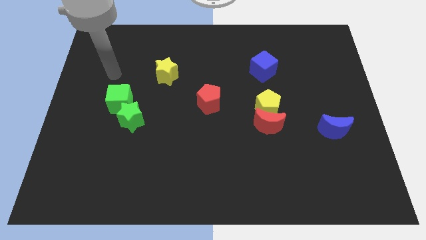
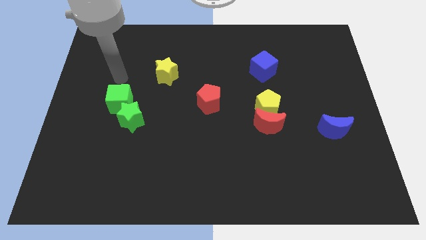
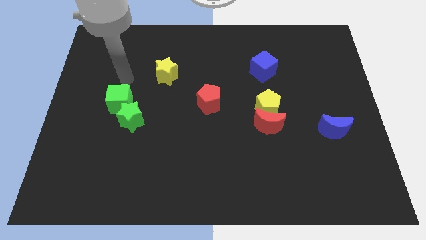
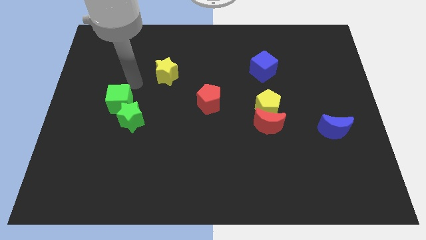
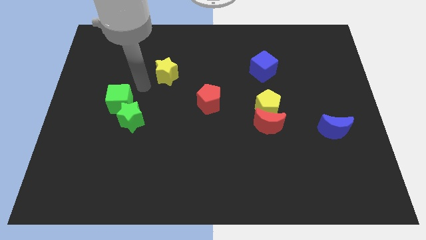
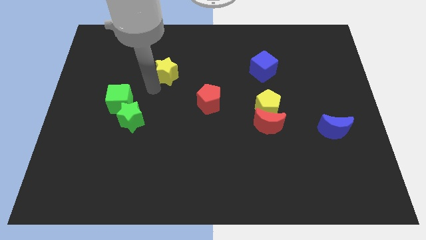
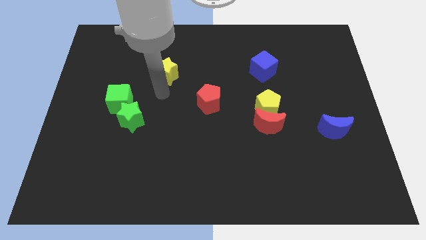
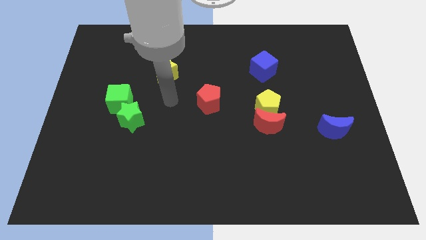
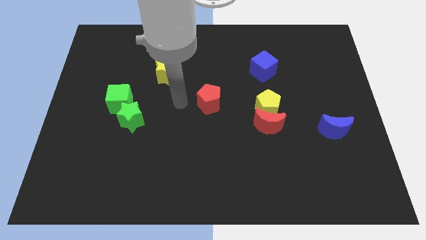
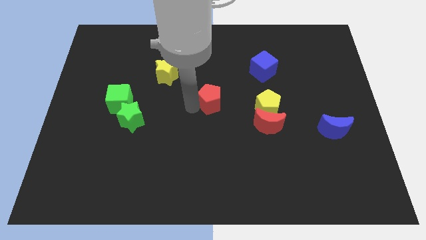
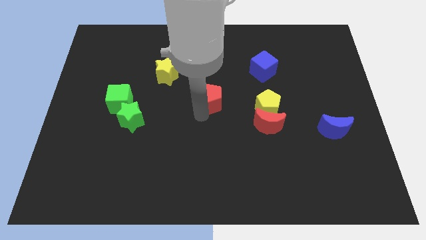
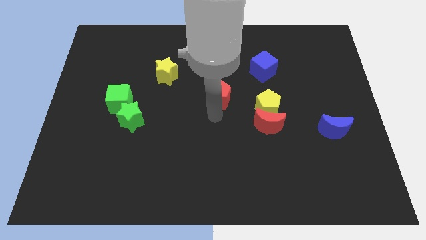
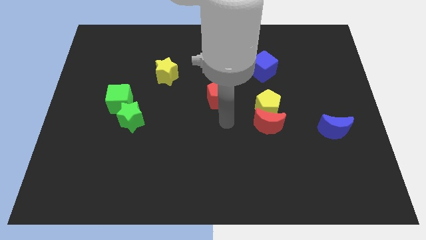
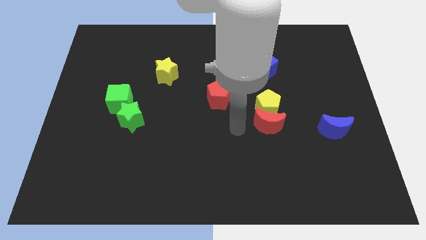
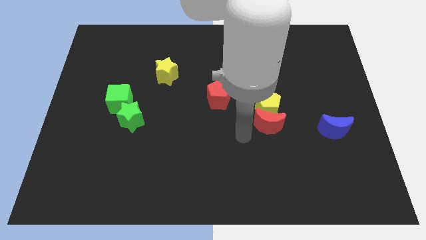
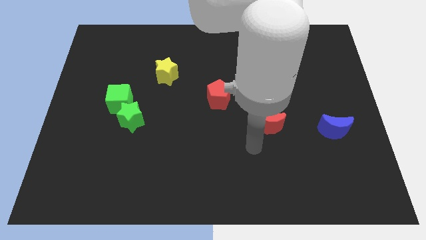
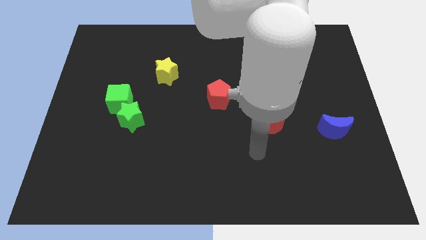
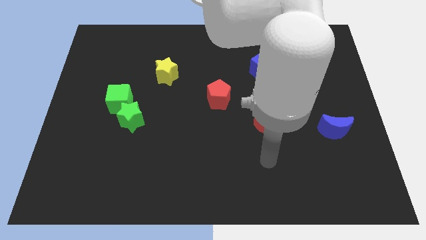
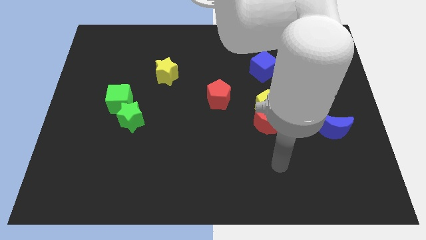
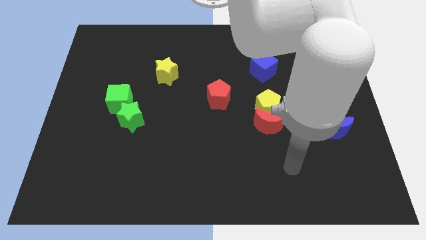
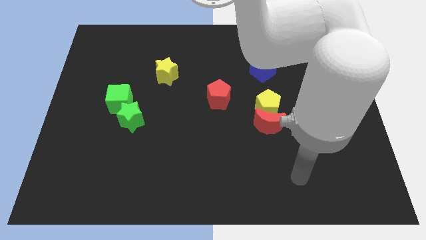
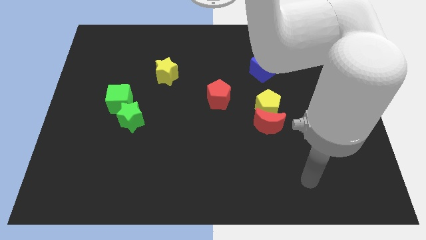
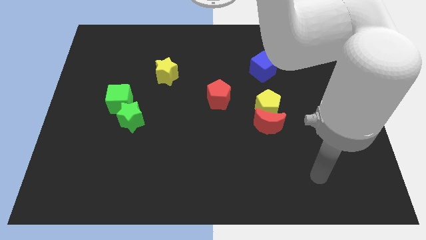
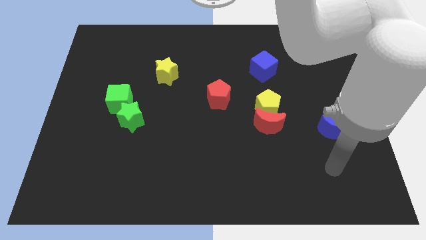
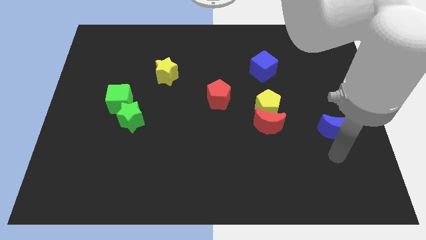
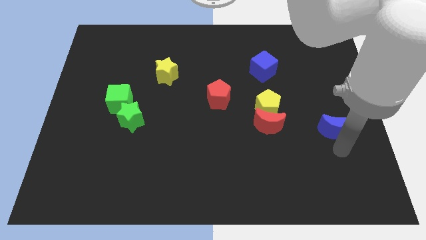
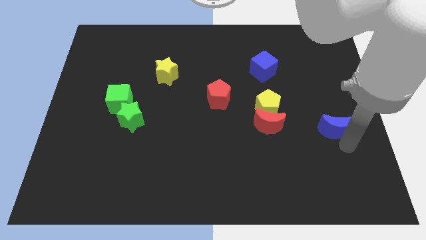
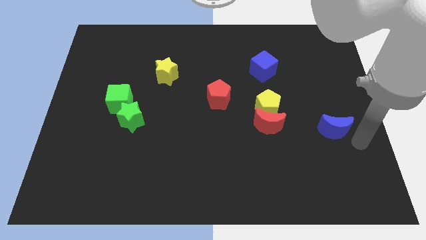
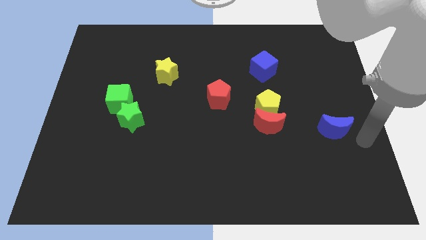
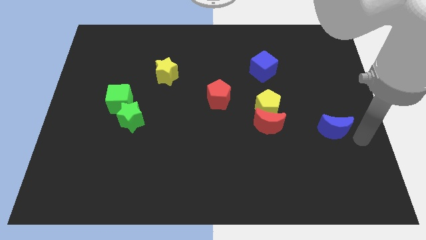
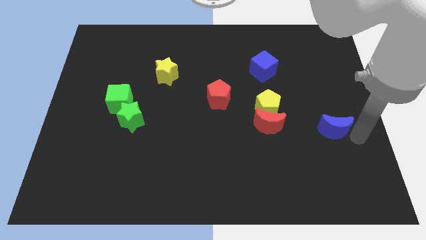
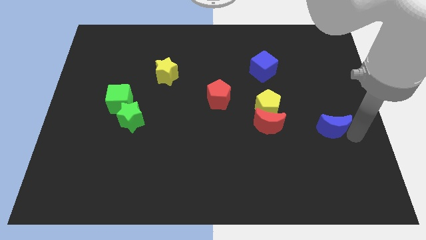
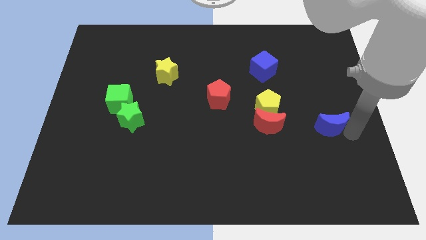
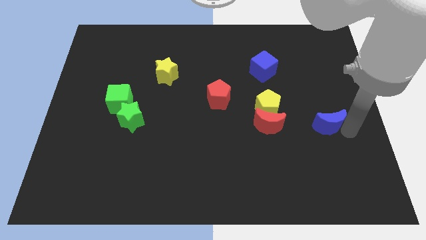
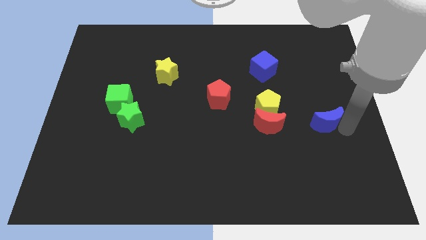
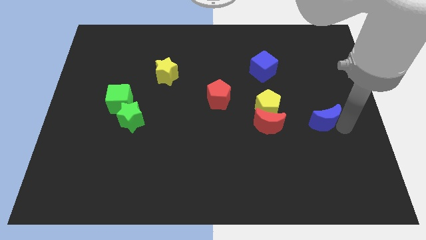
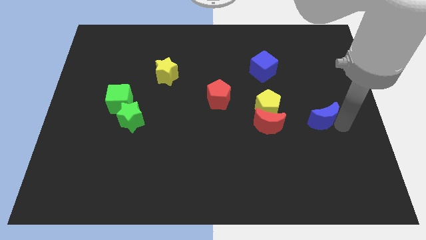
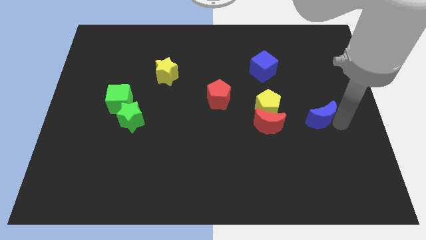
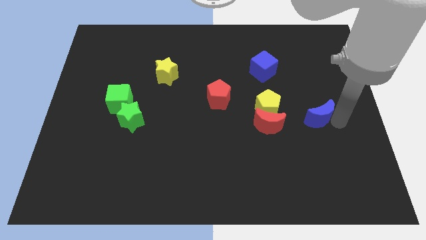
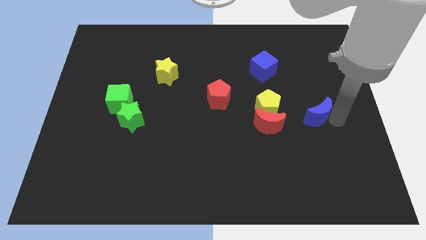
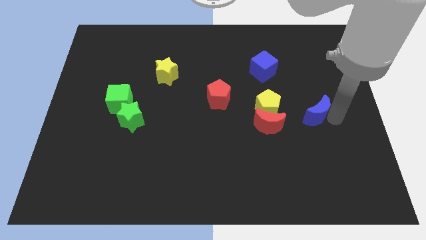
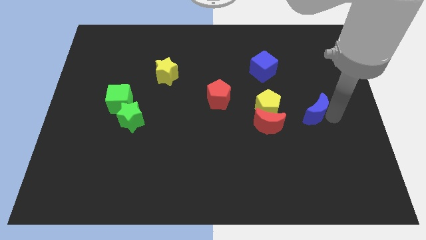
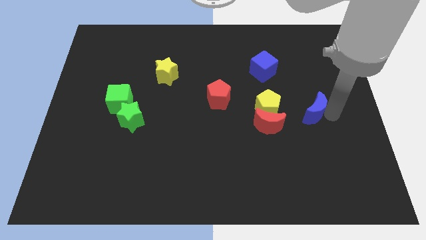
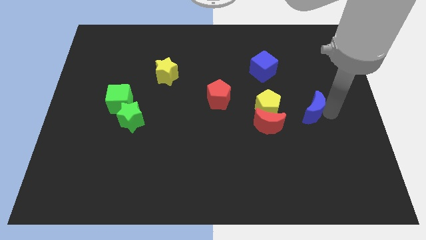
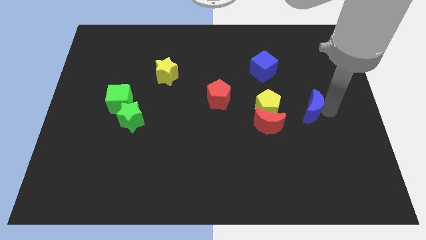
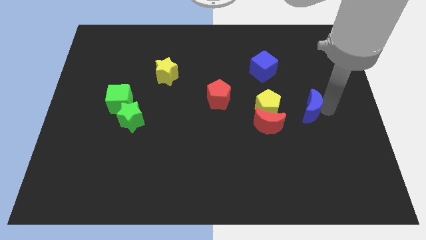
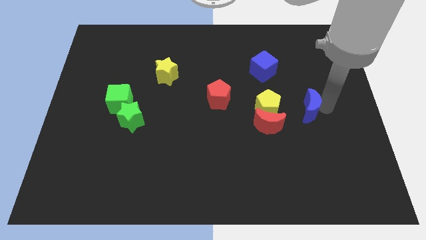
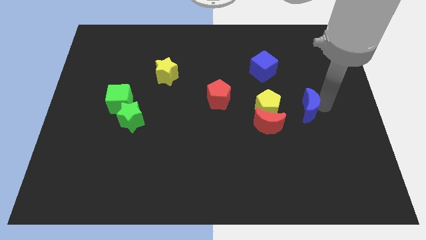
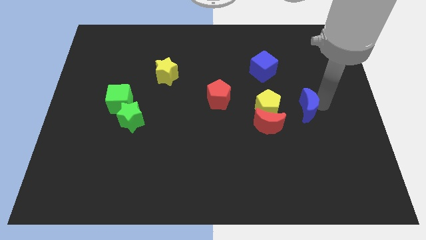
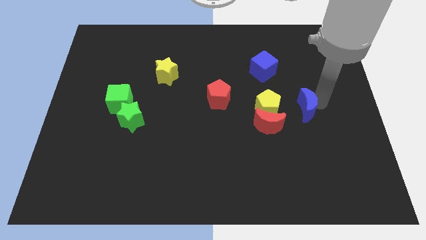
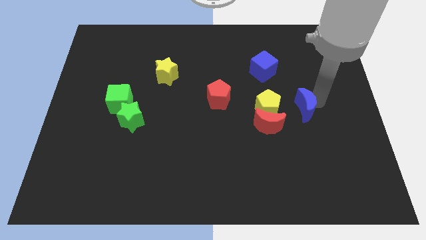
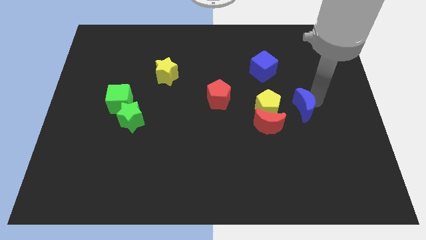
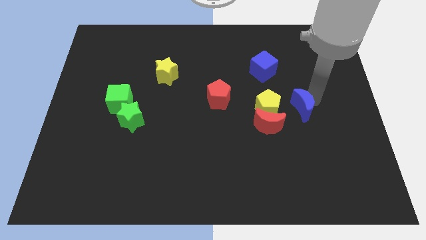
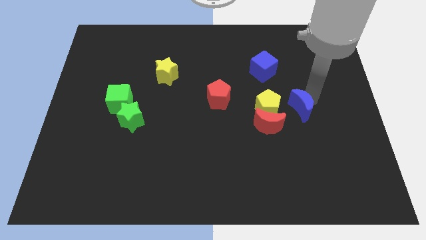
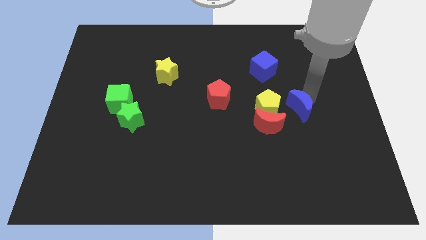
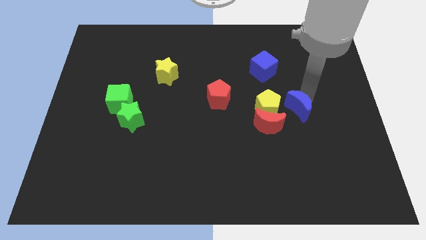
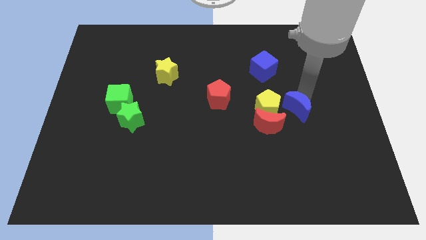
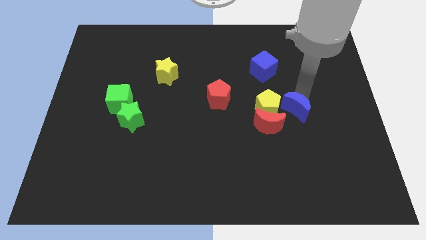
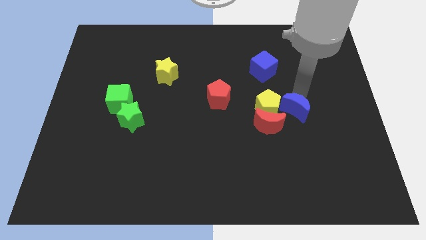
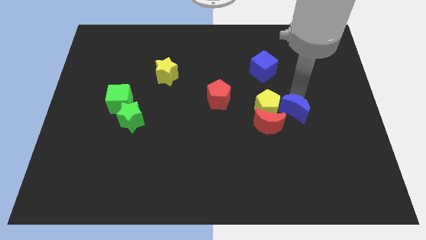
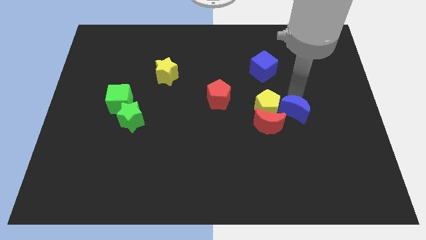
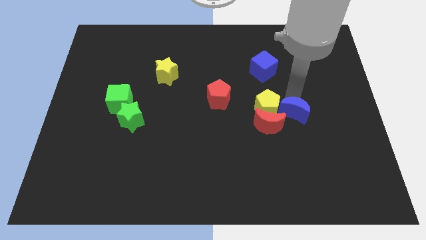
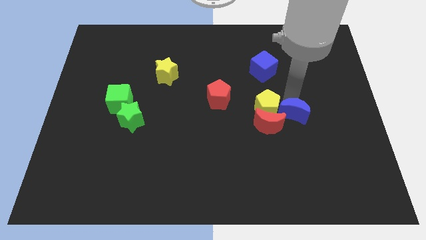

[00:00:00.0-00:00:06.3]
push the blue moon towards the yellow pentagon

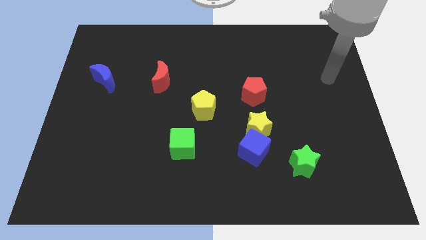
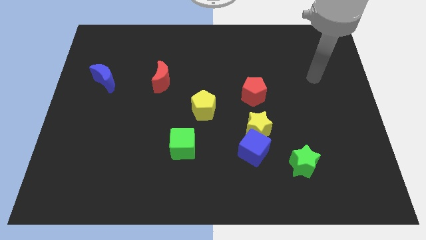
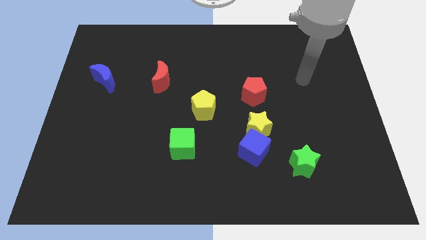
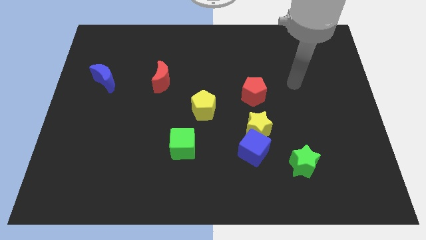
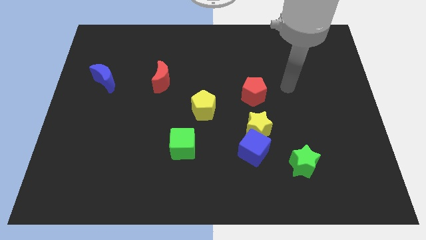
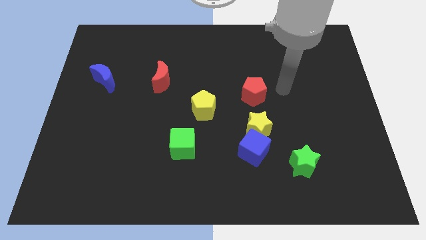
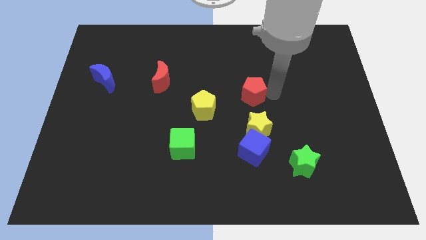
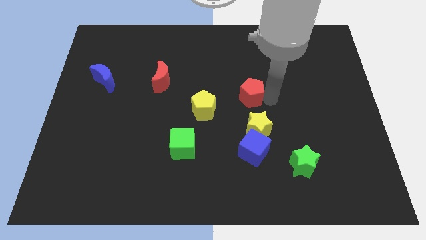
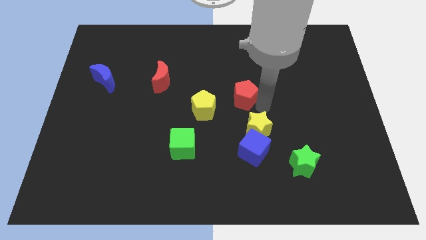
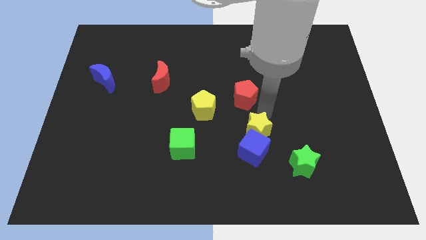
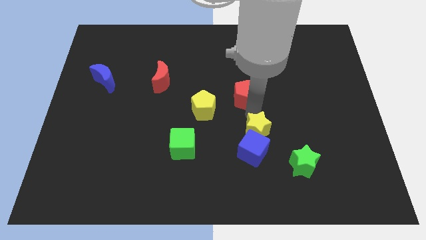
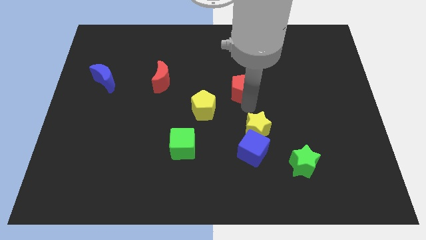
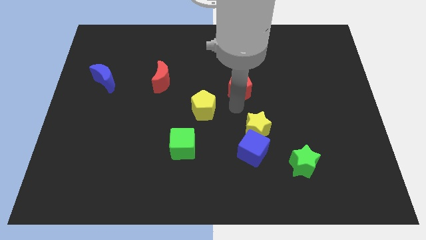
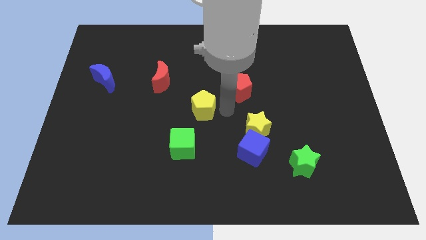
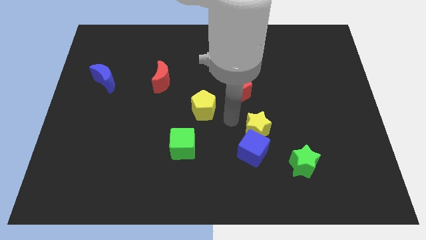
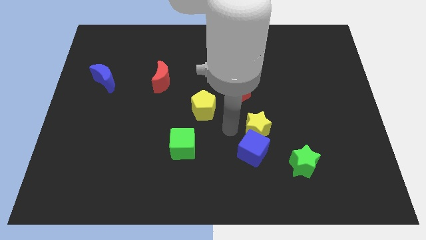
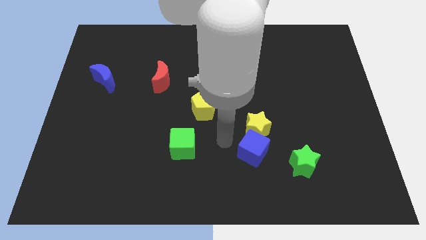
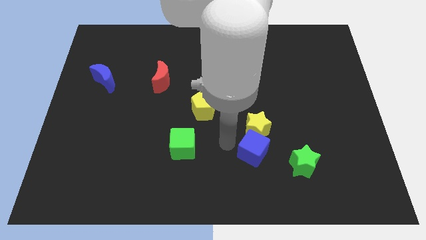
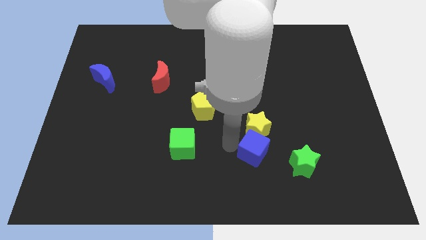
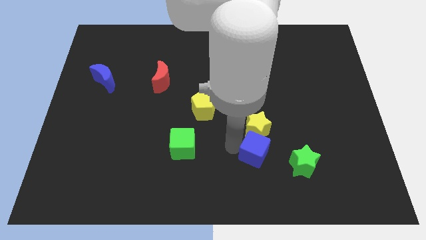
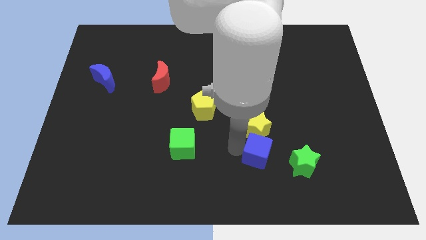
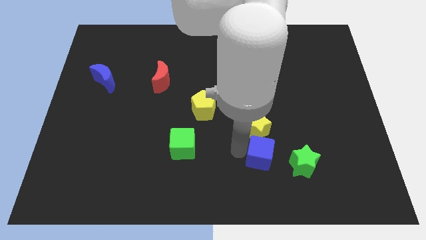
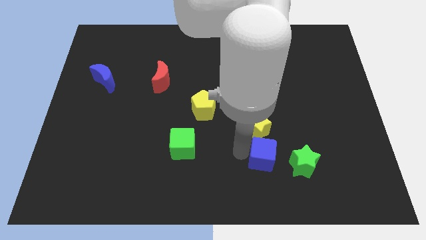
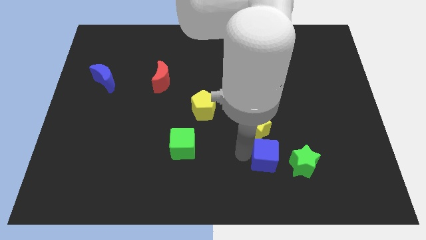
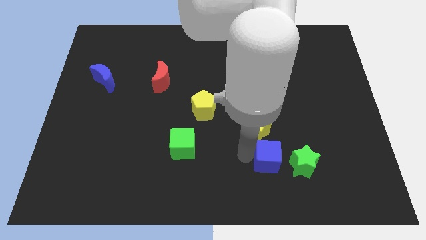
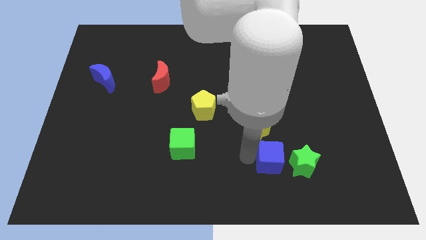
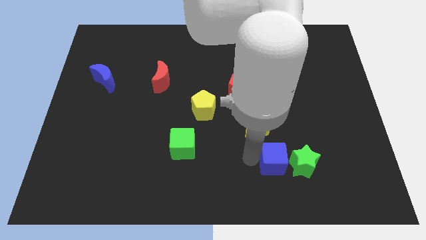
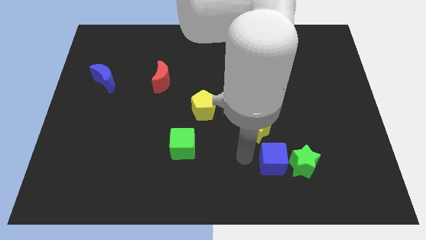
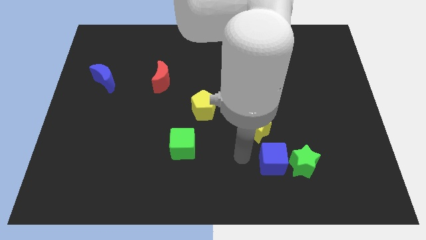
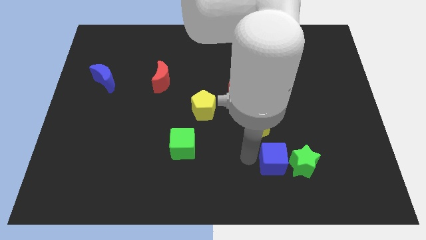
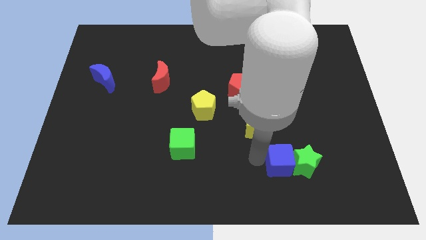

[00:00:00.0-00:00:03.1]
push the blue cube towards the green star
